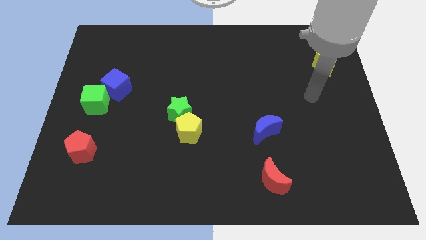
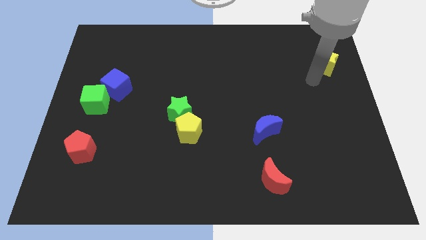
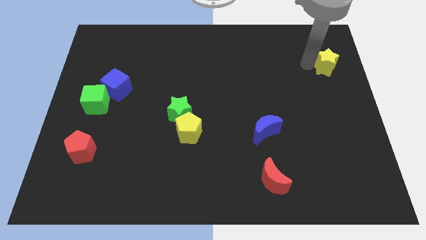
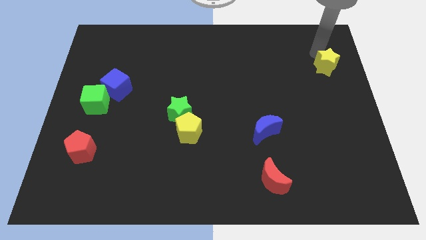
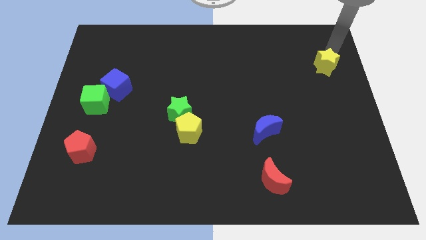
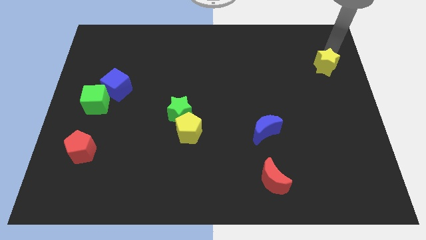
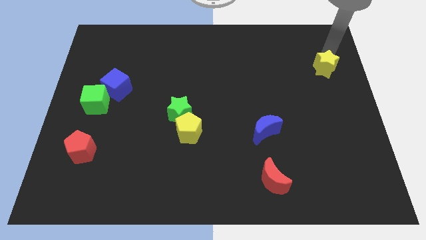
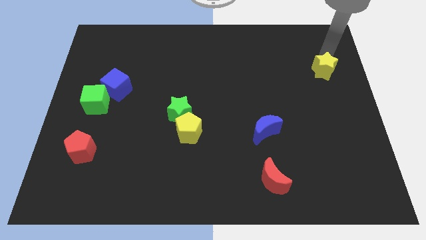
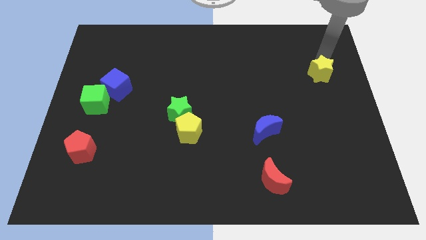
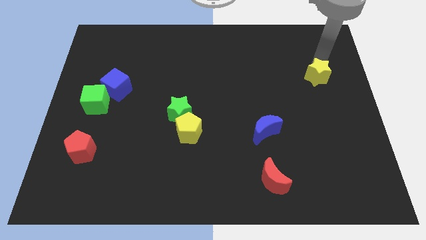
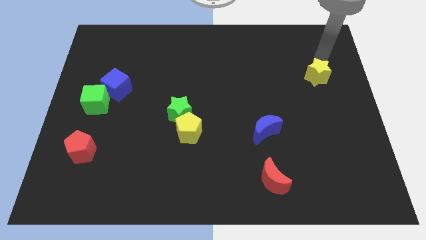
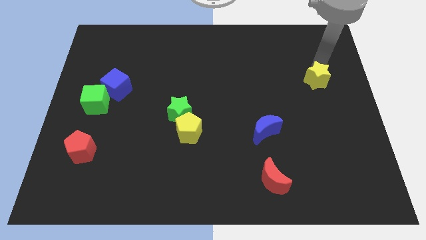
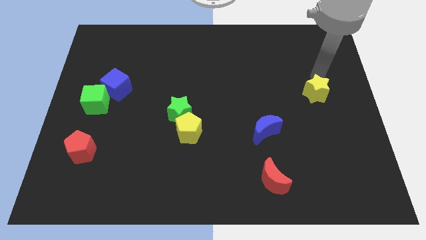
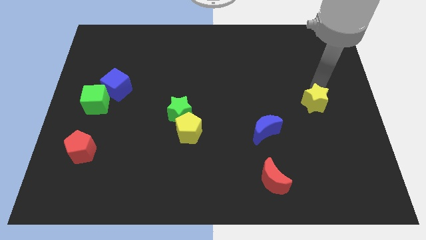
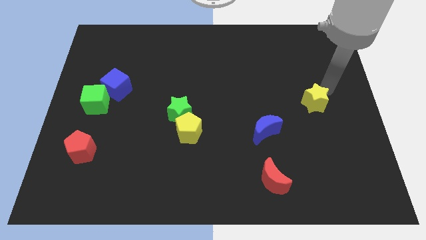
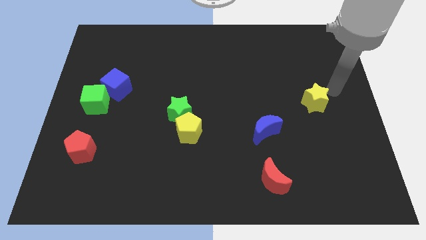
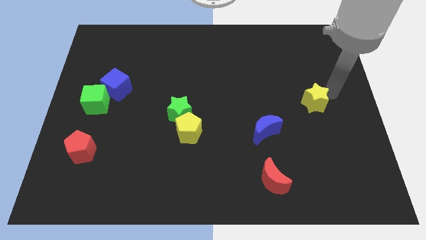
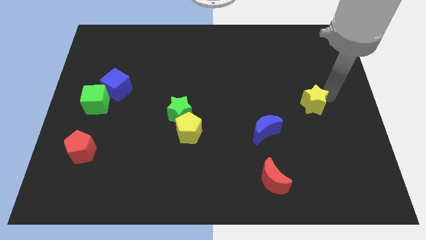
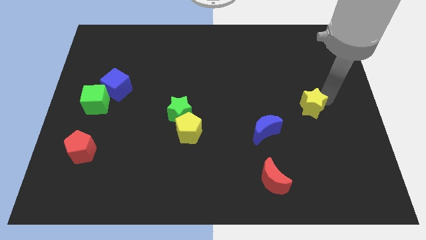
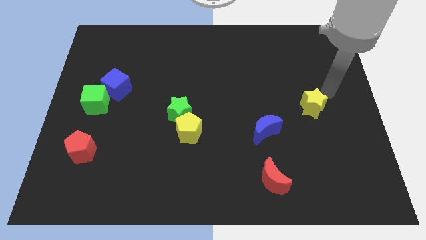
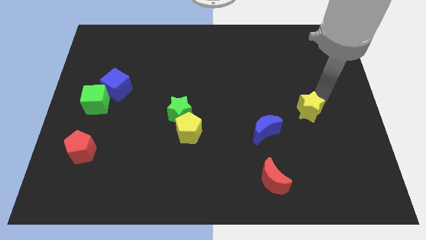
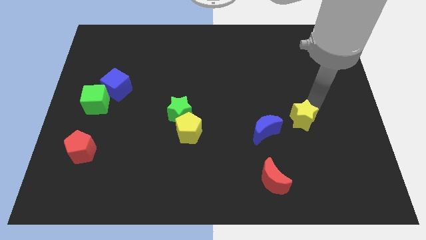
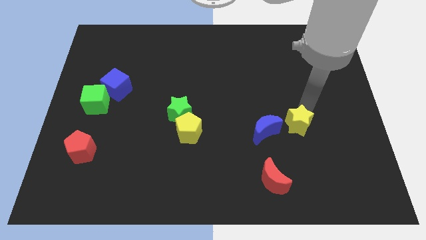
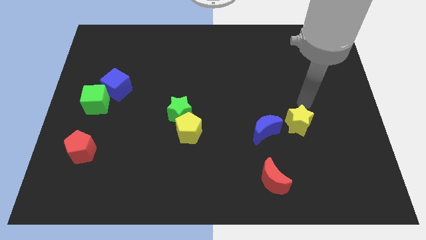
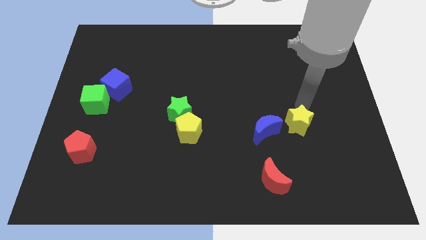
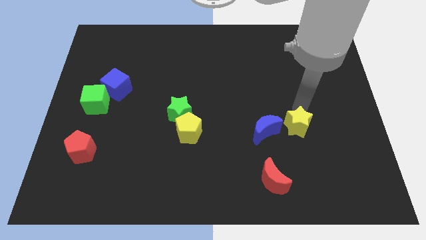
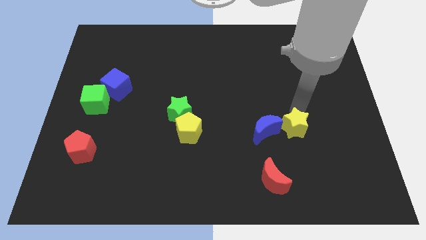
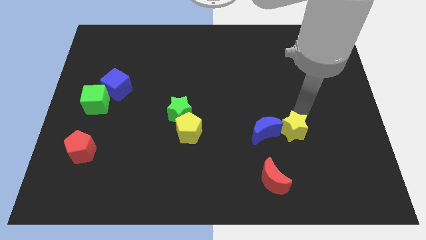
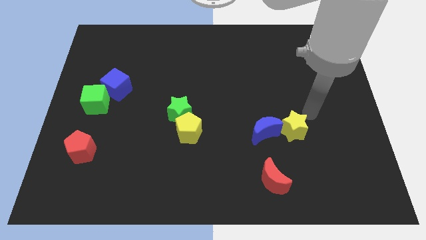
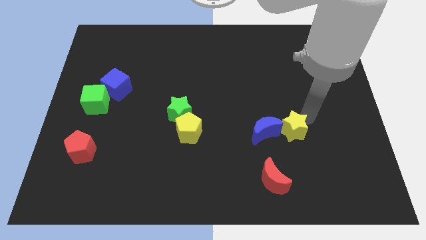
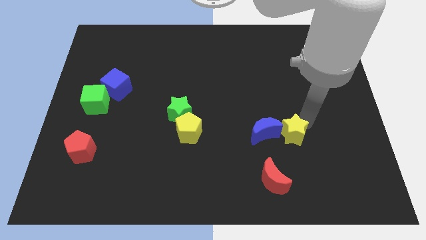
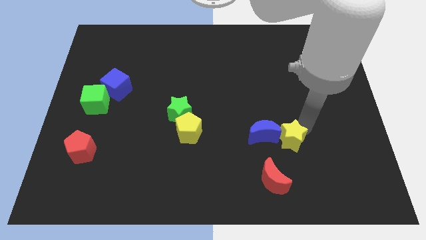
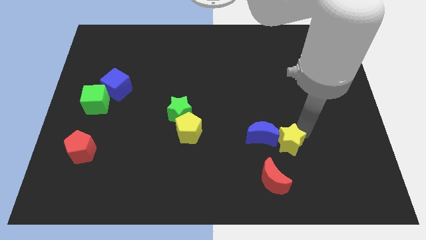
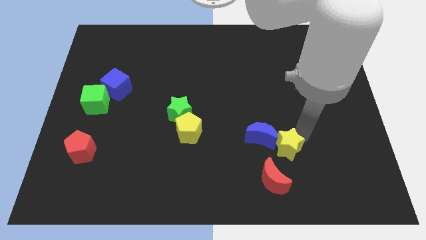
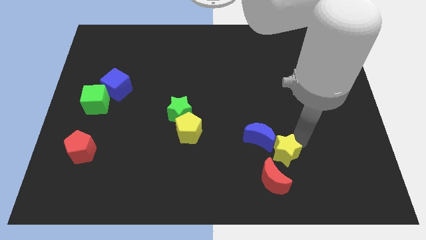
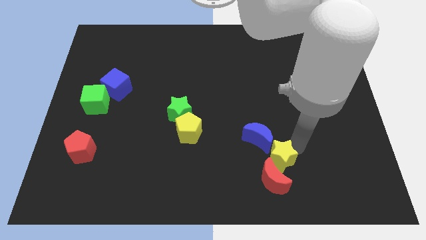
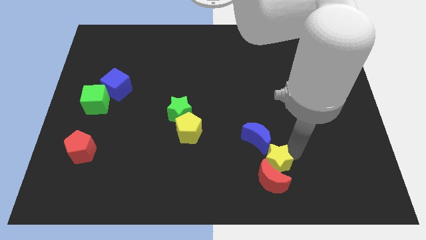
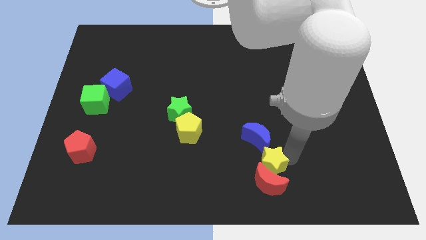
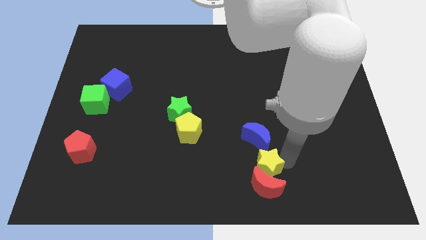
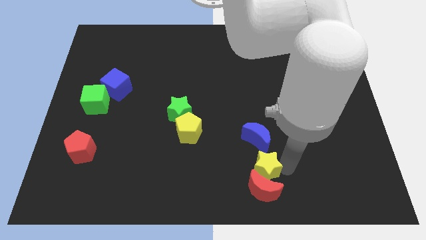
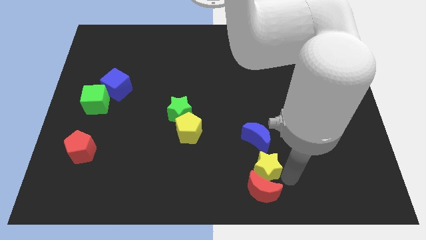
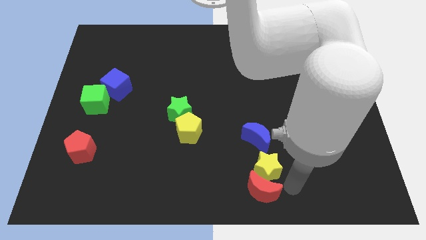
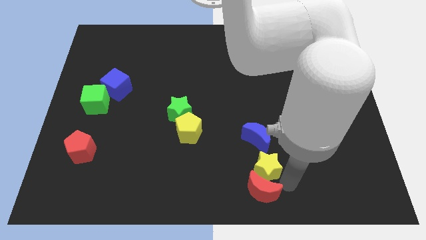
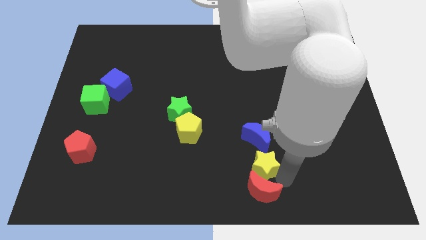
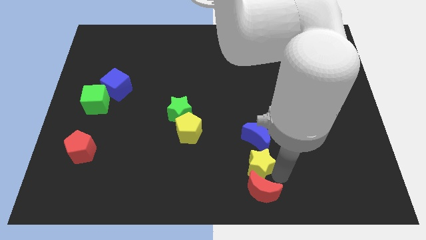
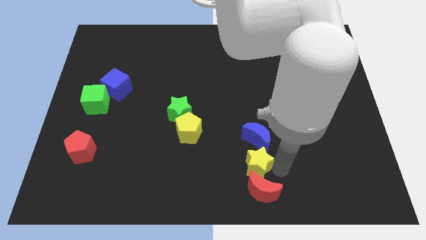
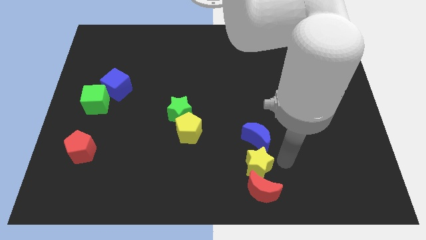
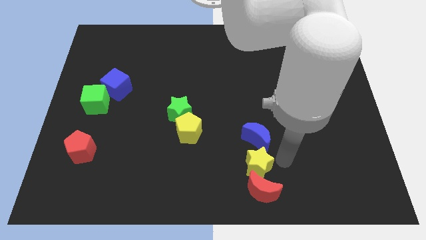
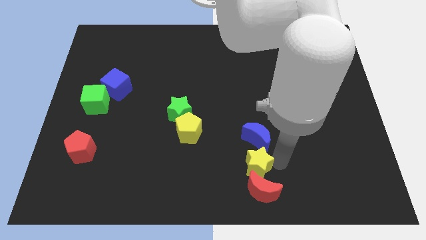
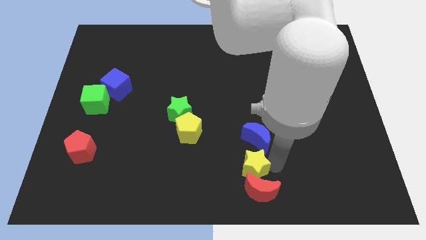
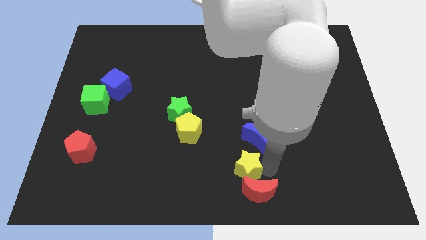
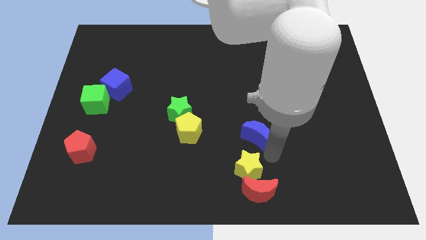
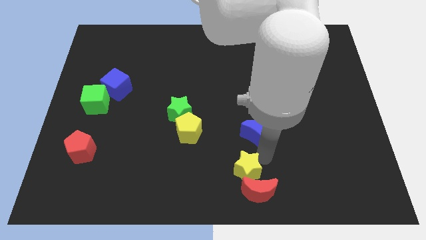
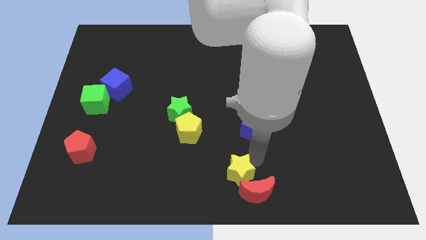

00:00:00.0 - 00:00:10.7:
move the yellow star to the left of the red moon

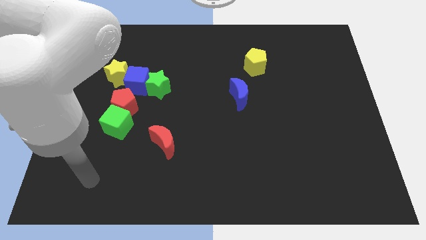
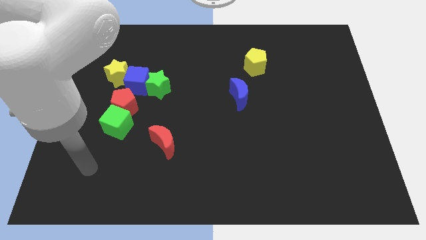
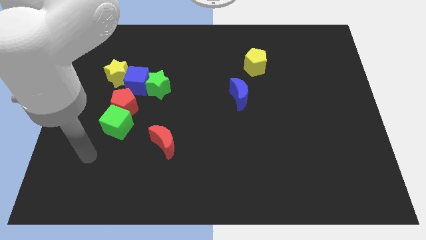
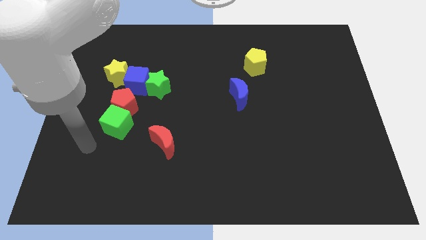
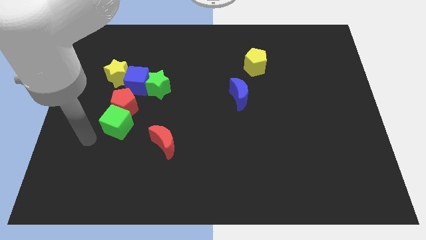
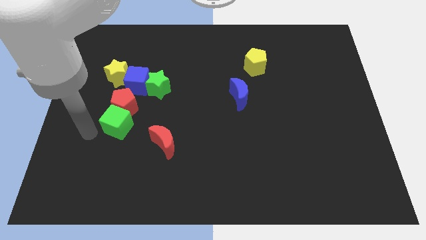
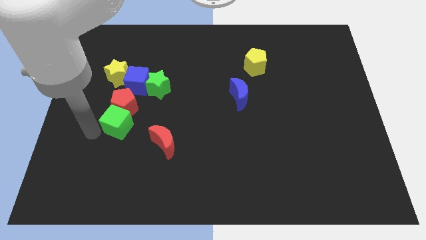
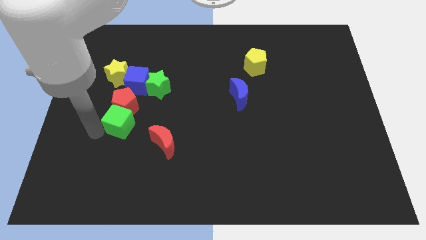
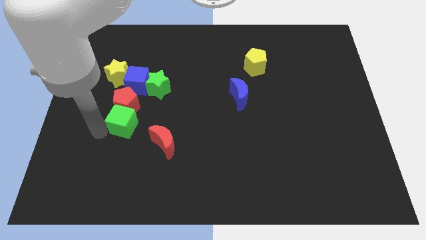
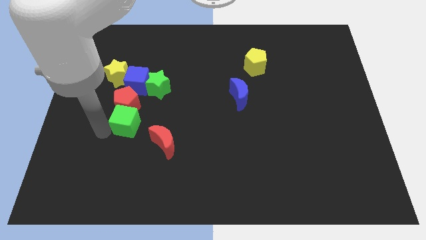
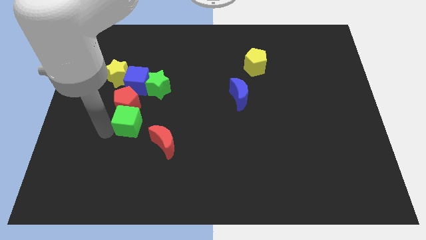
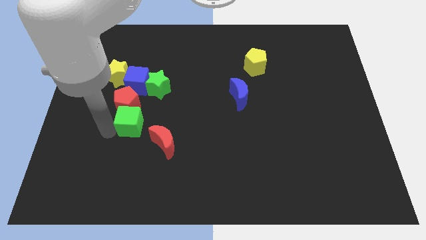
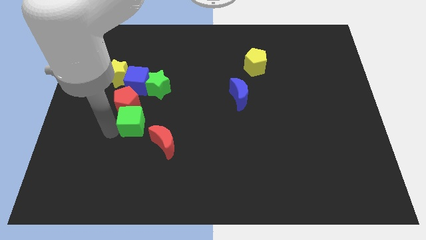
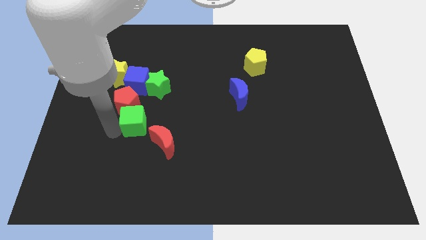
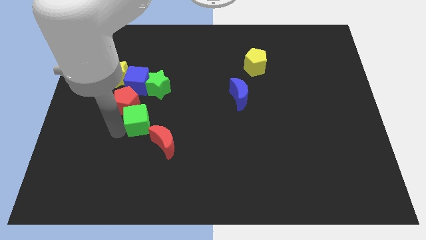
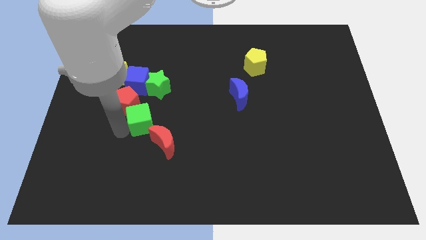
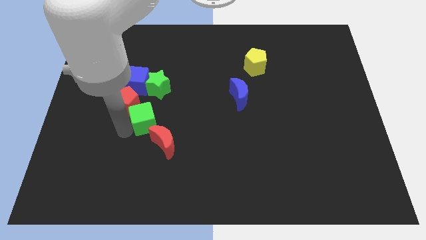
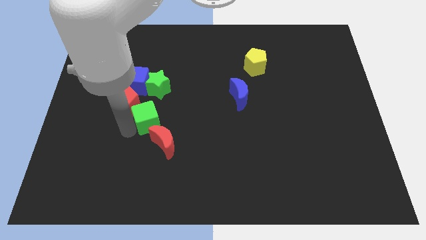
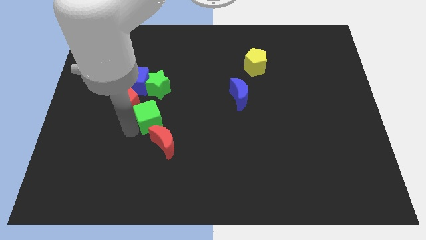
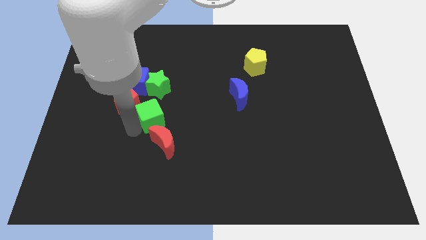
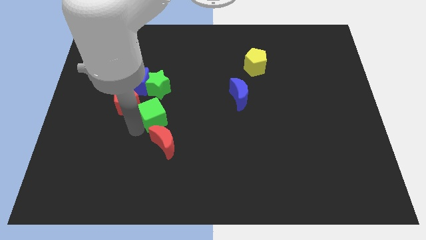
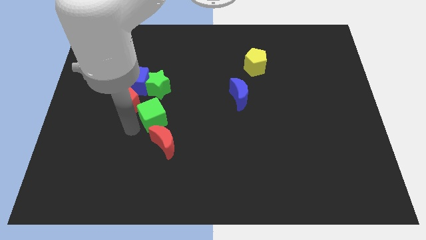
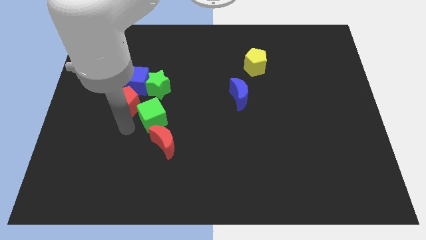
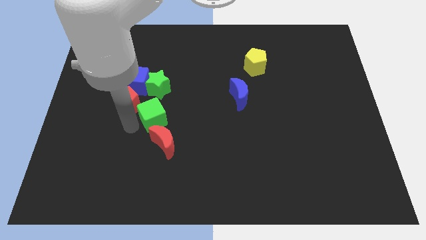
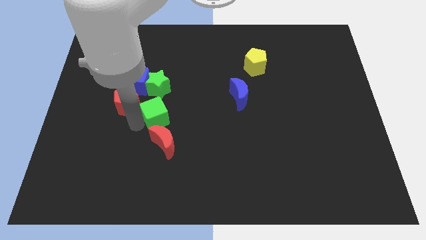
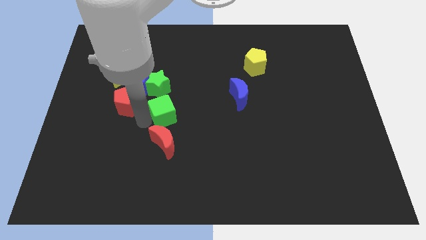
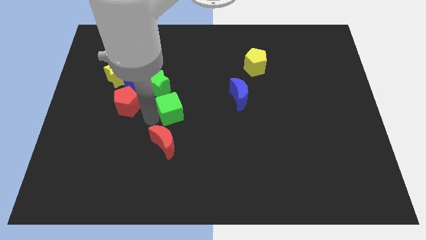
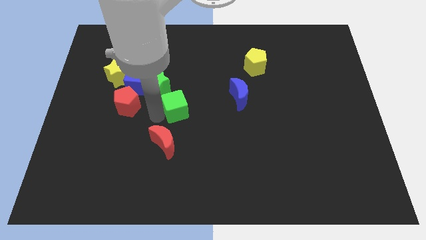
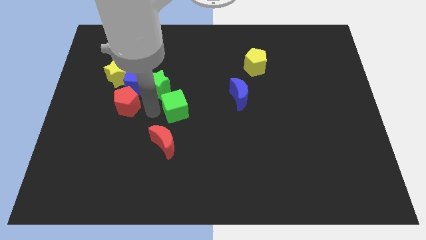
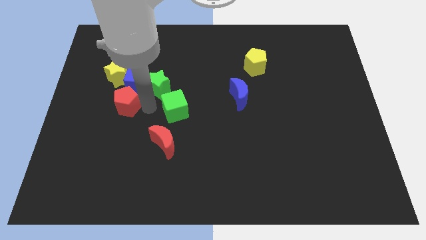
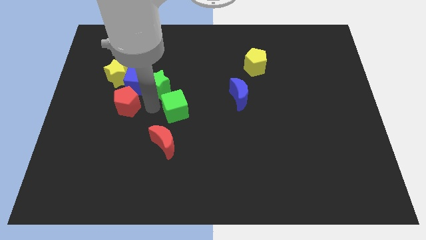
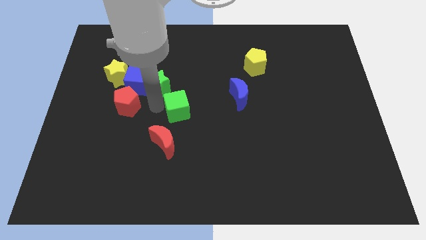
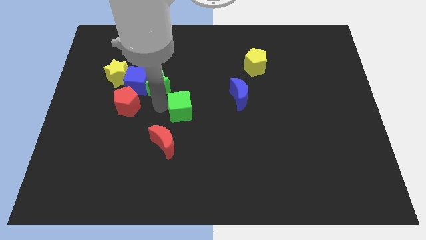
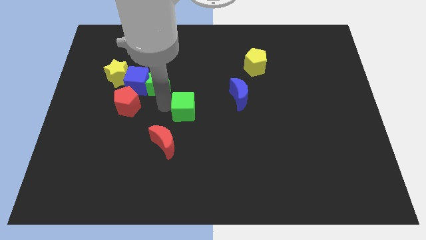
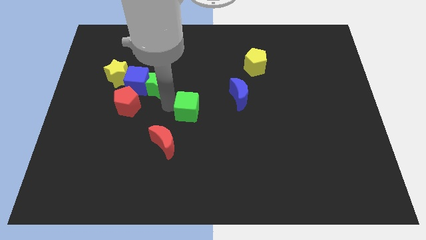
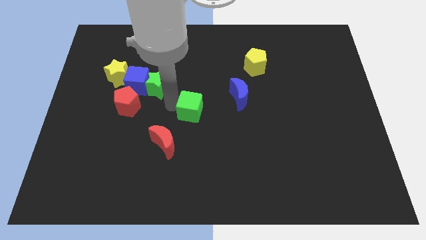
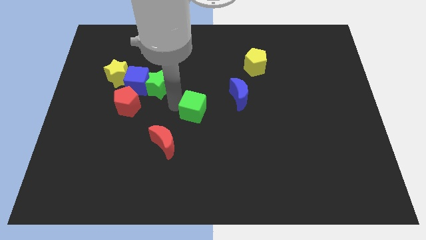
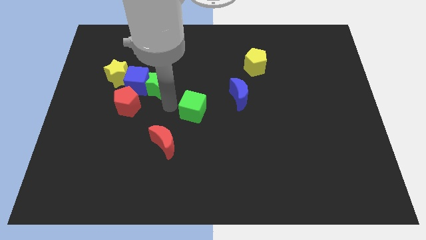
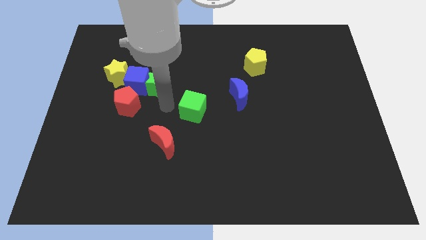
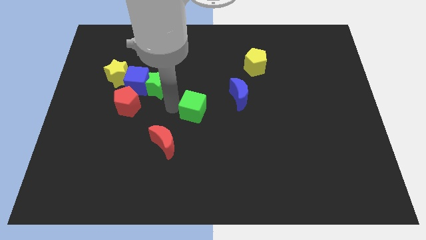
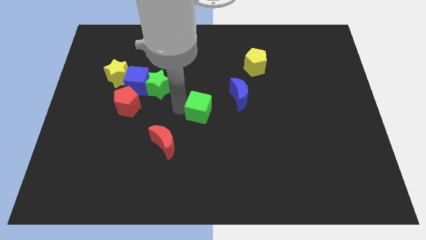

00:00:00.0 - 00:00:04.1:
slide the green cube to the bottom left side of the blue moon
